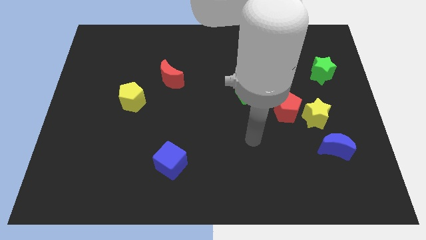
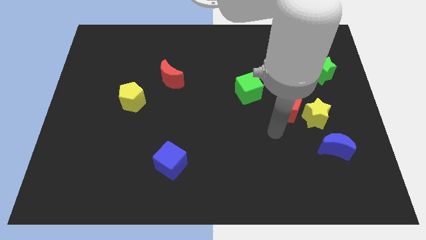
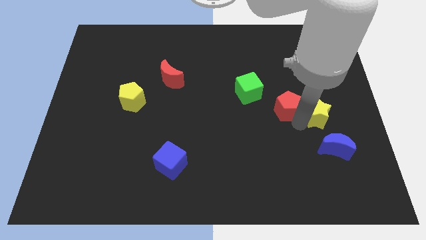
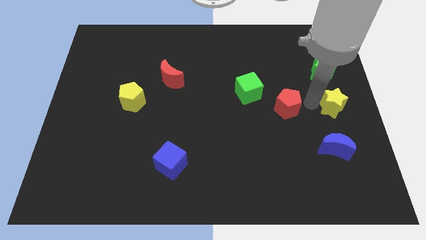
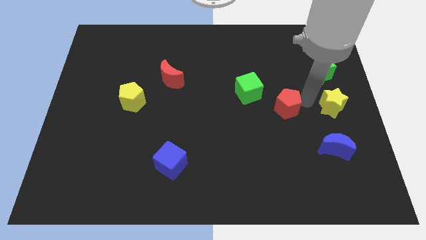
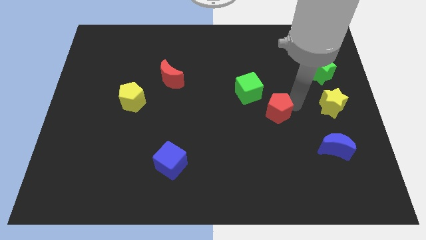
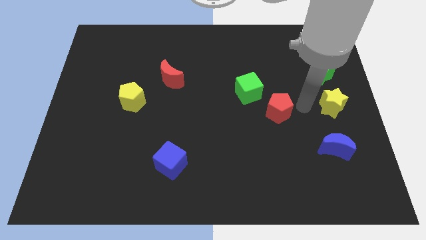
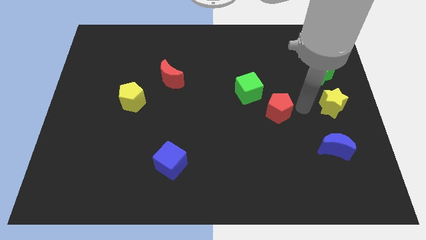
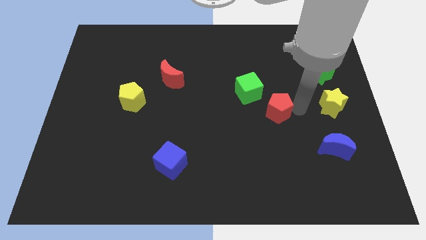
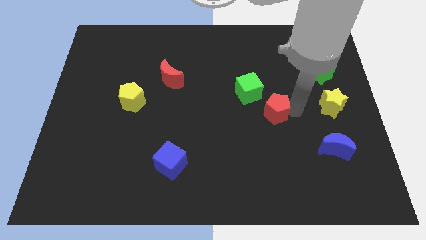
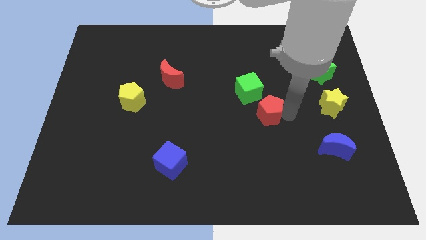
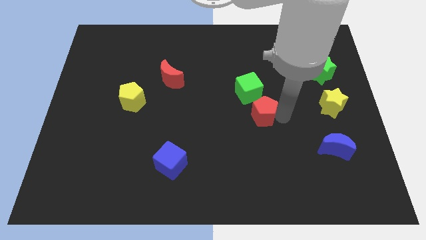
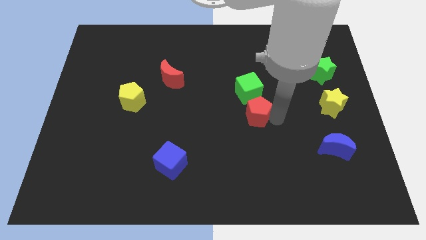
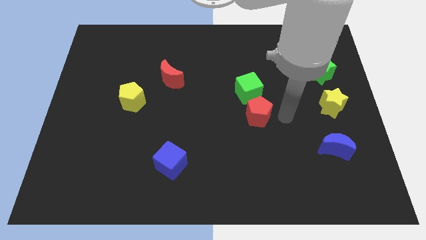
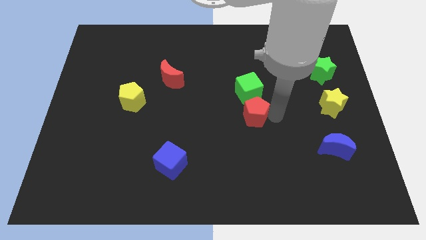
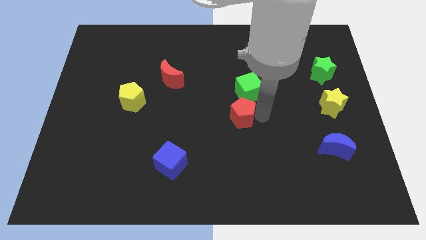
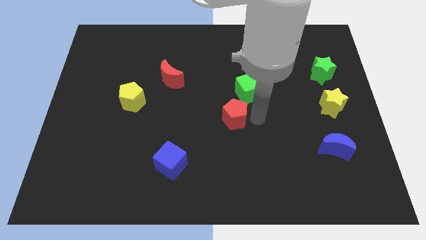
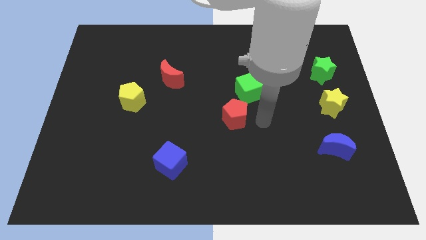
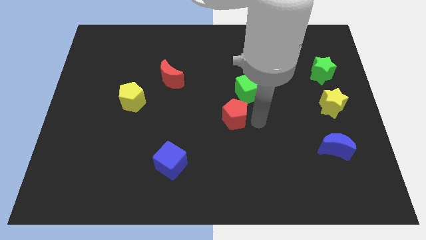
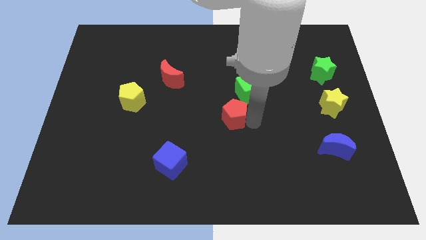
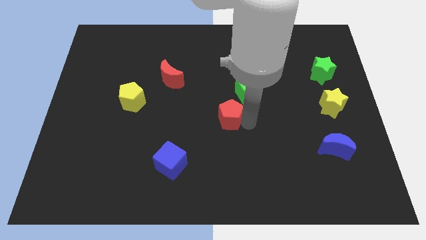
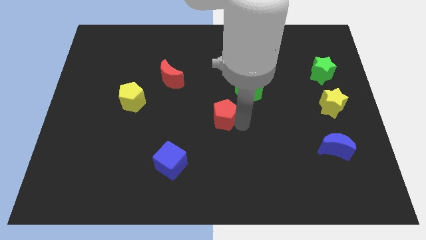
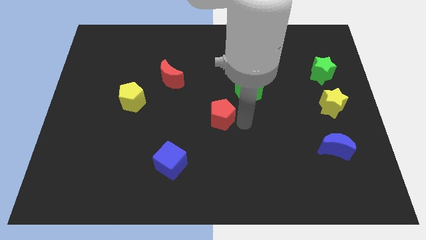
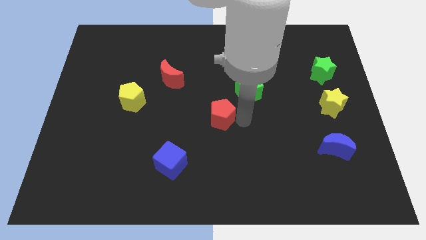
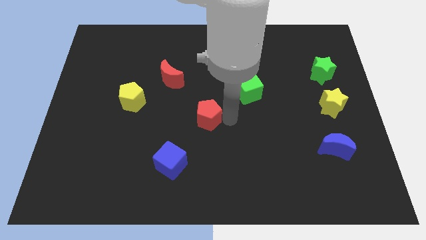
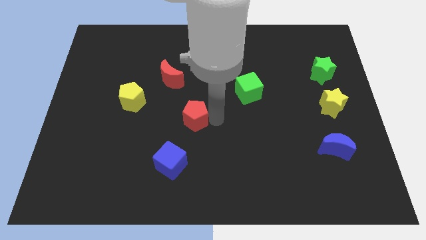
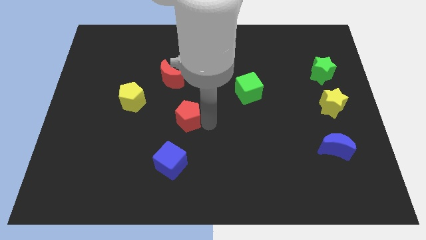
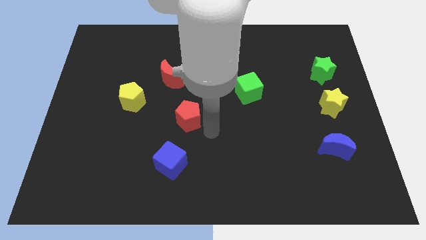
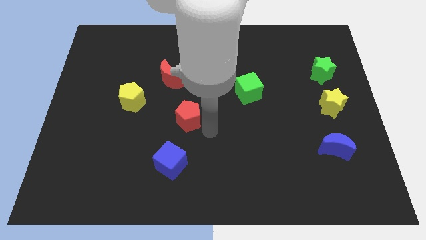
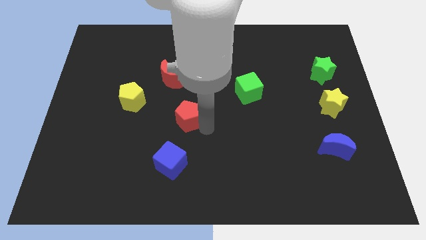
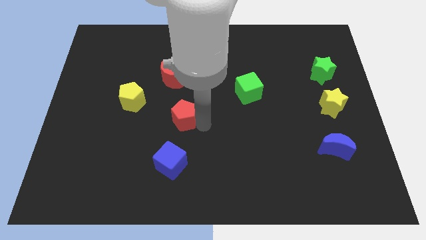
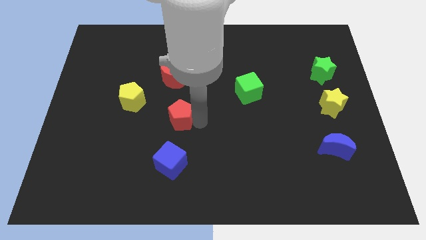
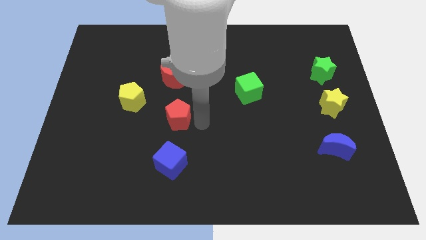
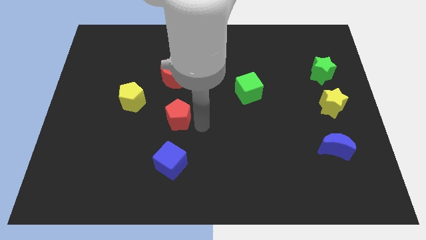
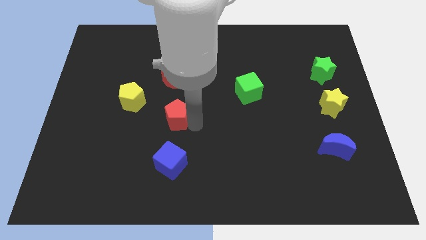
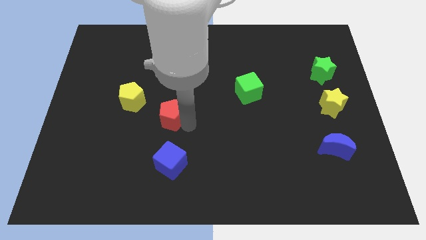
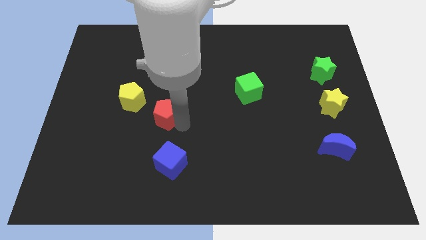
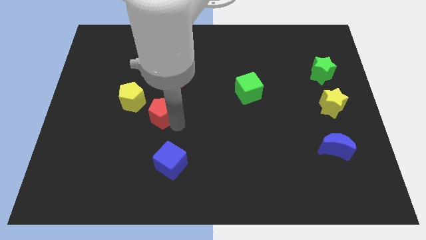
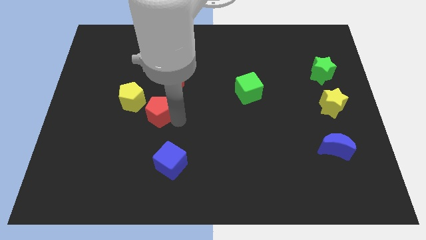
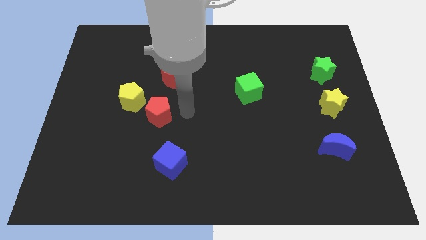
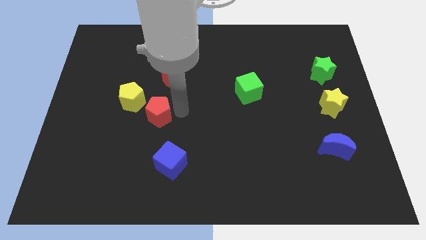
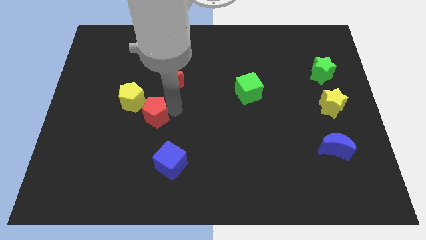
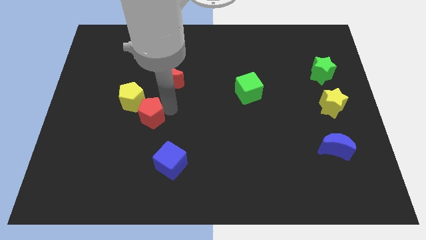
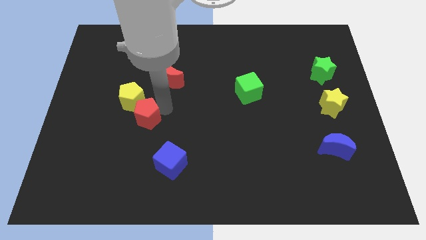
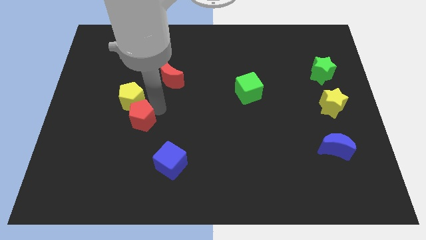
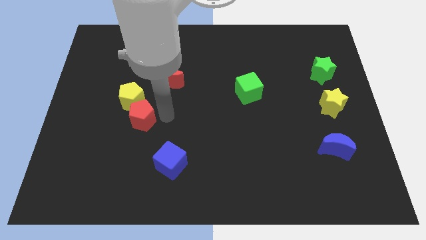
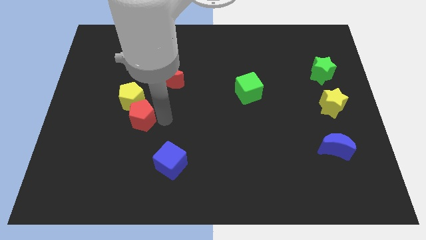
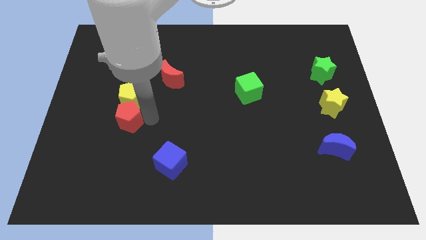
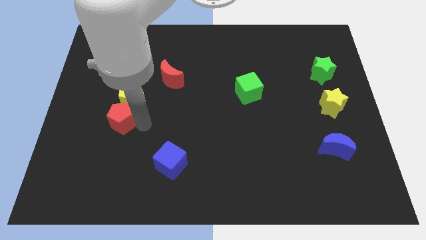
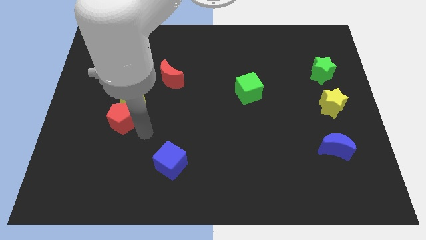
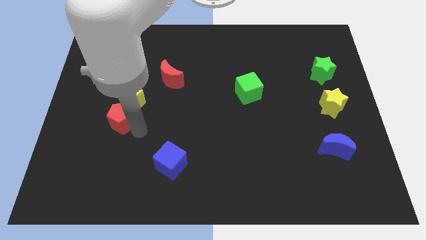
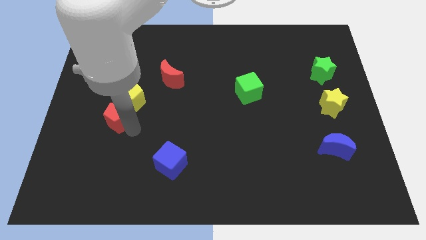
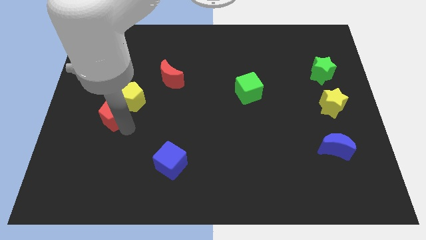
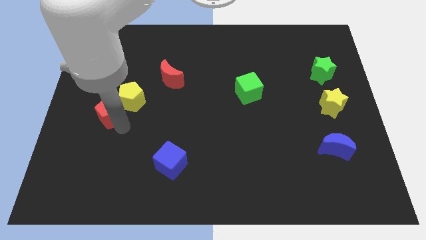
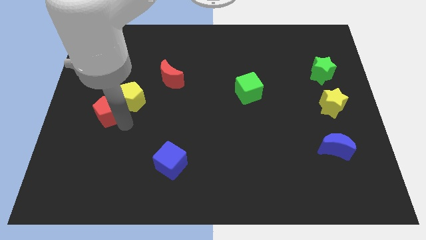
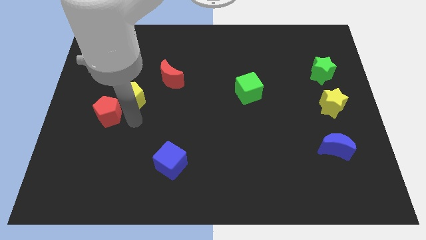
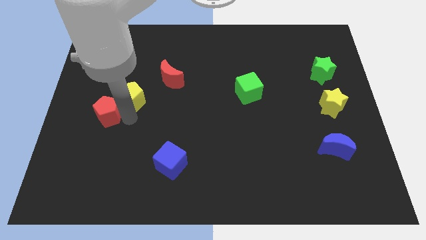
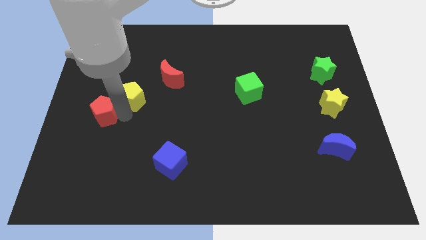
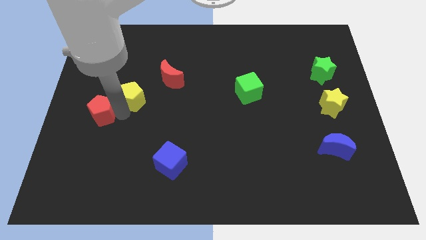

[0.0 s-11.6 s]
put the red pentagon to the left side of the board

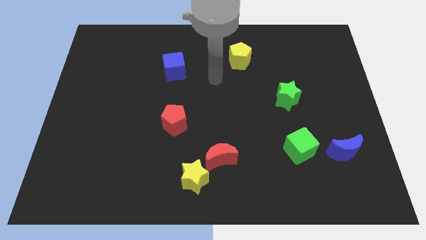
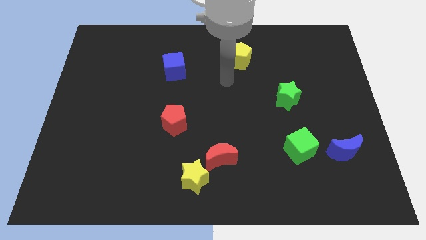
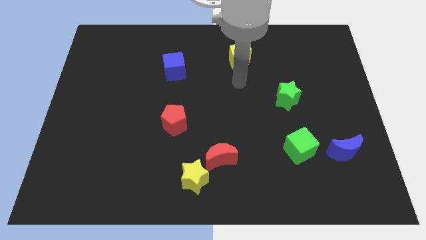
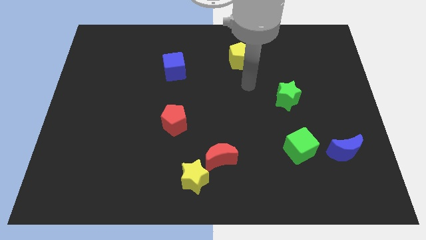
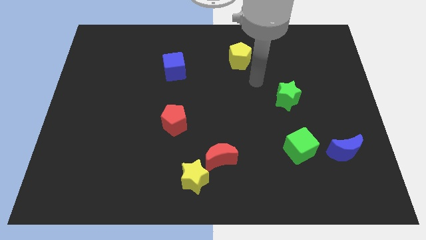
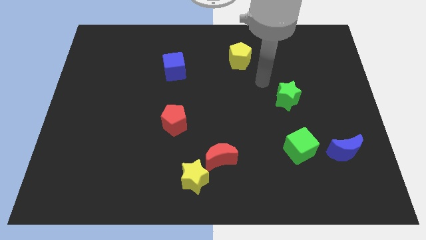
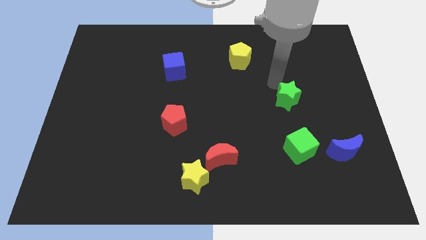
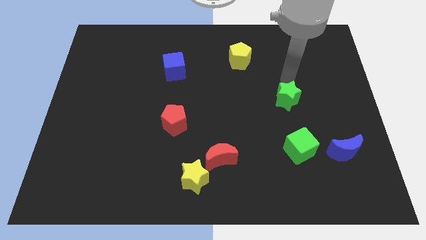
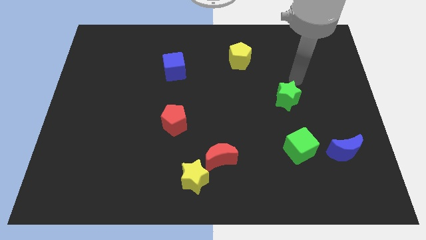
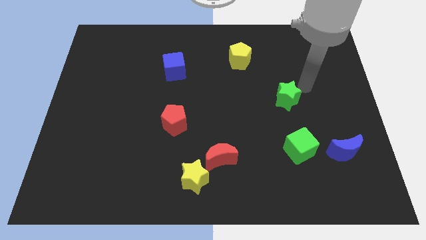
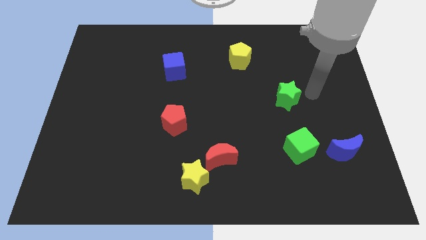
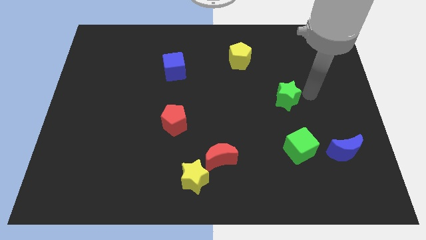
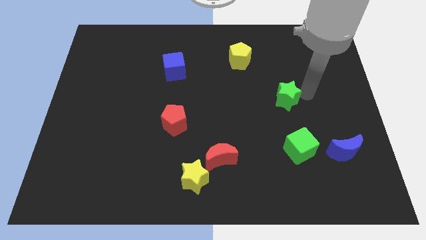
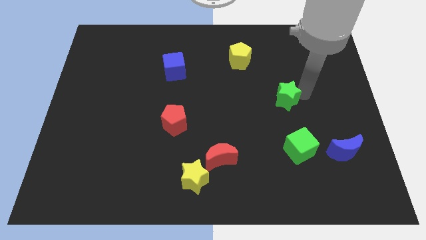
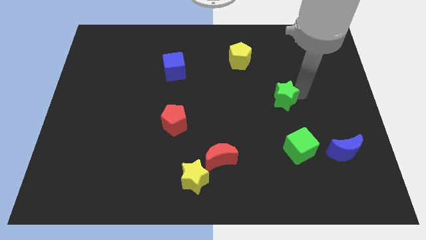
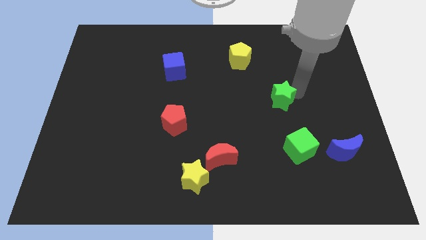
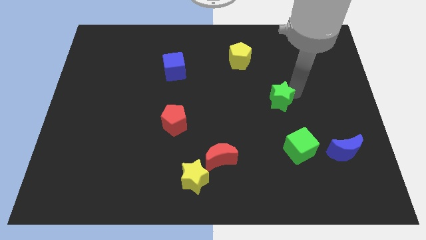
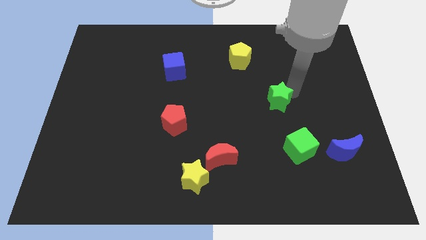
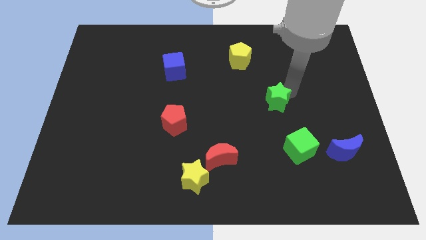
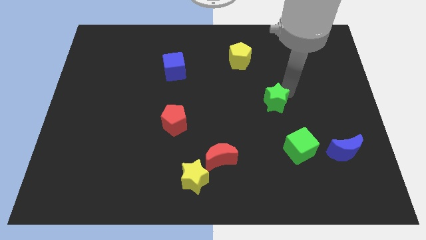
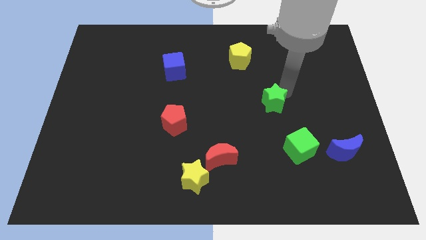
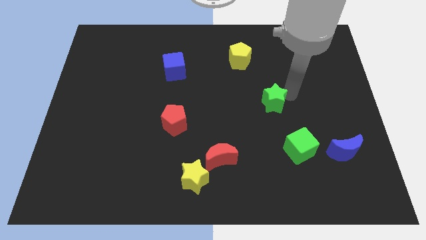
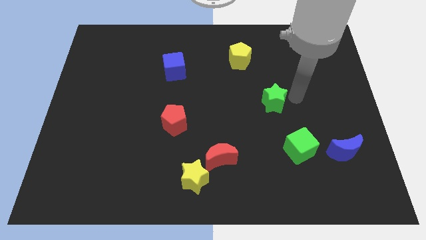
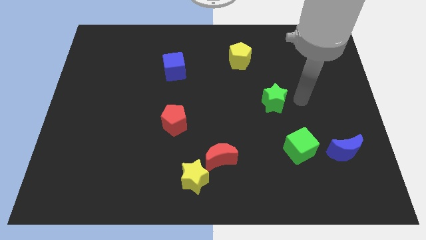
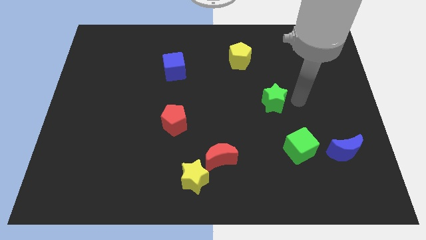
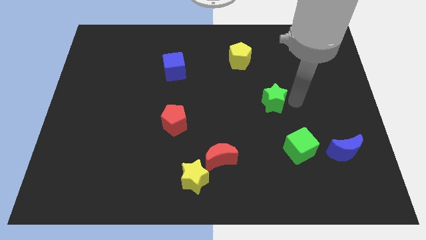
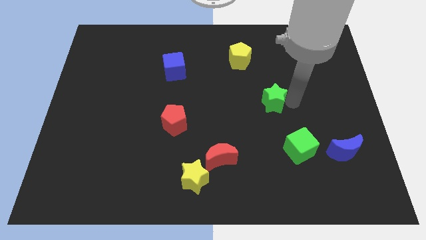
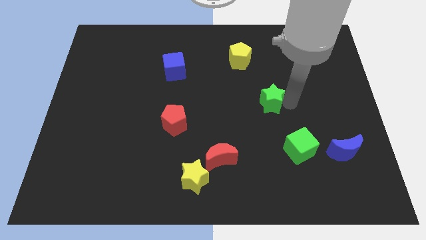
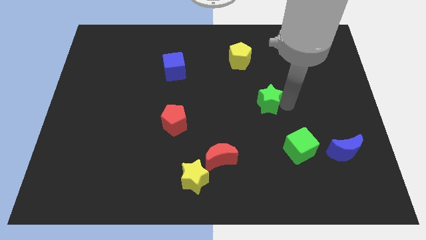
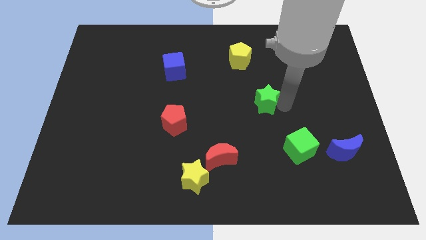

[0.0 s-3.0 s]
slide the green star to the center of the board
